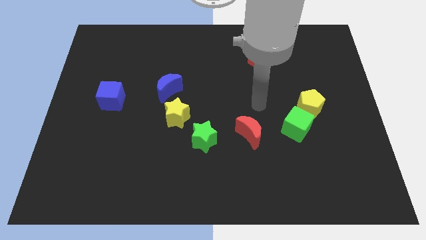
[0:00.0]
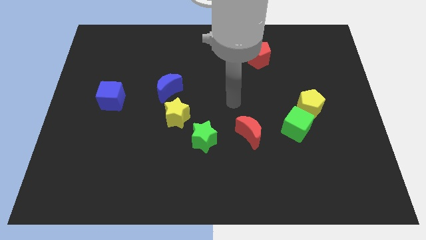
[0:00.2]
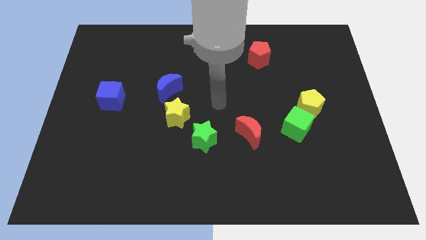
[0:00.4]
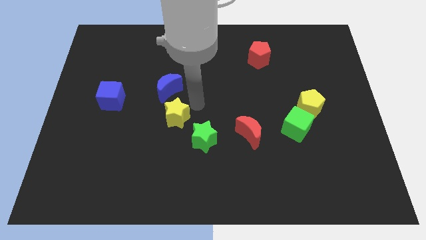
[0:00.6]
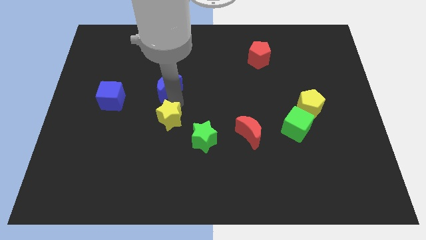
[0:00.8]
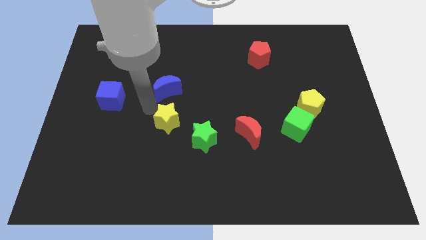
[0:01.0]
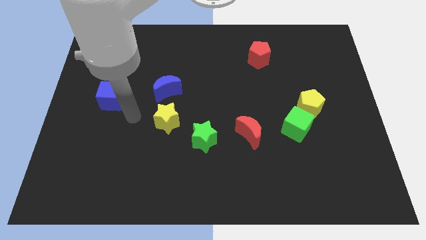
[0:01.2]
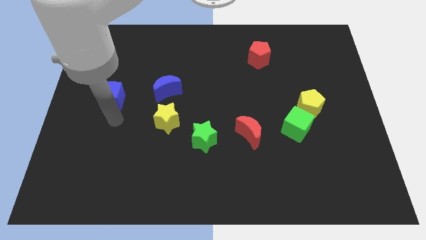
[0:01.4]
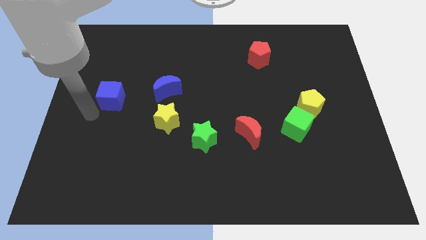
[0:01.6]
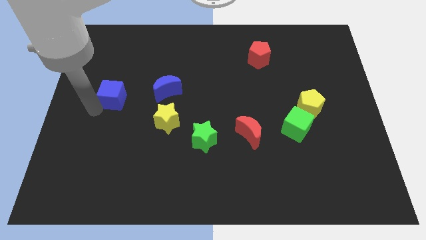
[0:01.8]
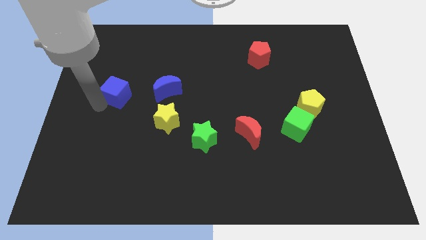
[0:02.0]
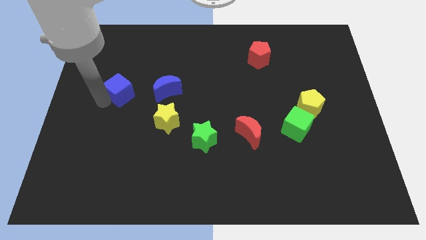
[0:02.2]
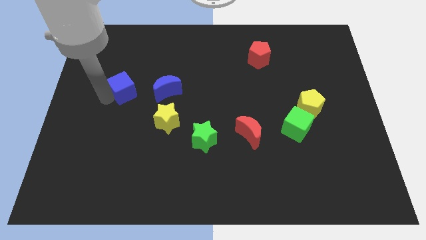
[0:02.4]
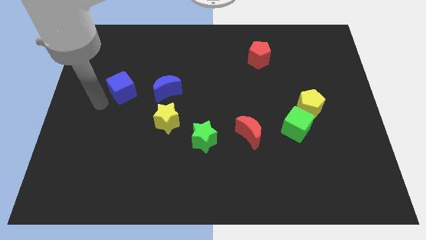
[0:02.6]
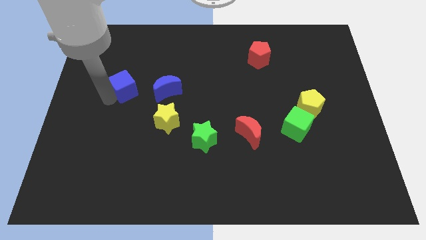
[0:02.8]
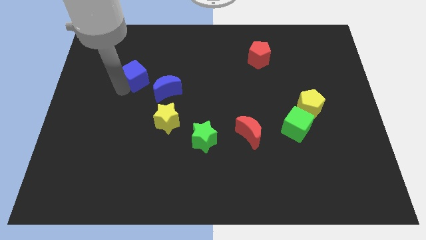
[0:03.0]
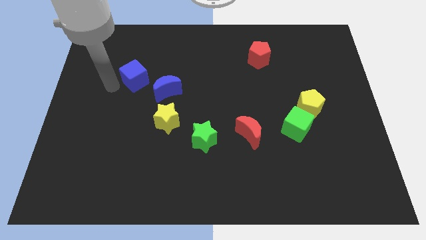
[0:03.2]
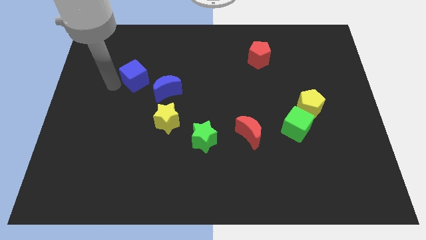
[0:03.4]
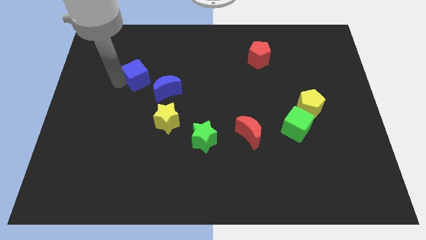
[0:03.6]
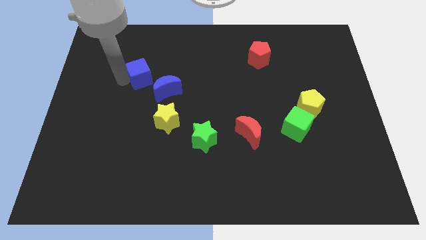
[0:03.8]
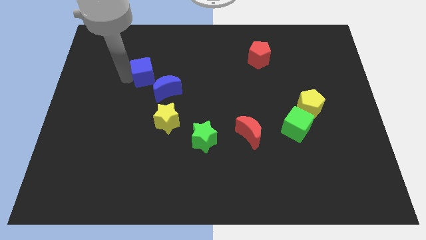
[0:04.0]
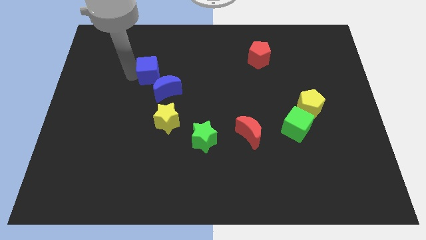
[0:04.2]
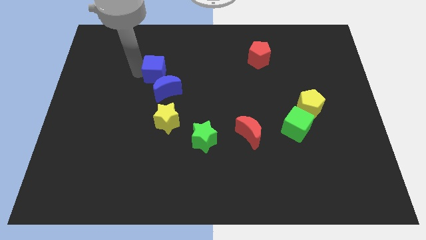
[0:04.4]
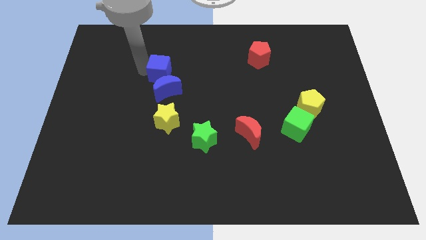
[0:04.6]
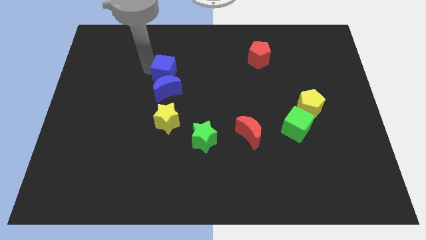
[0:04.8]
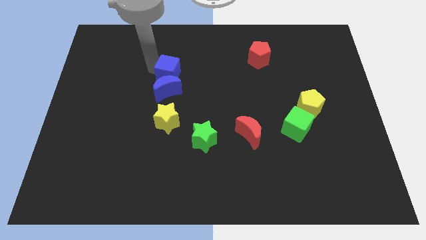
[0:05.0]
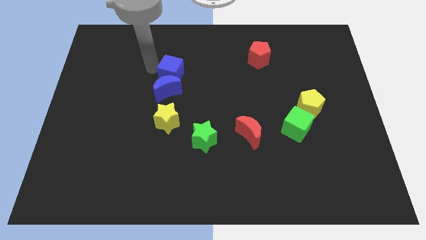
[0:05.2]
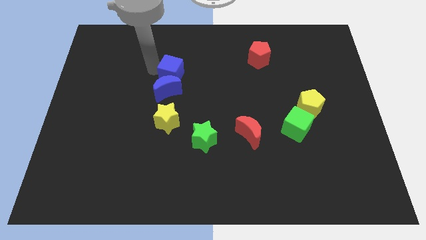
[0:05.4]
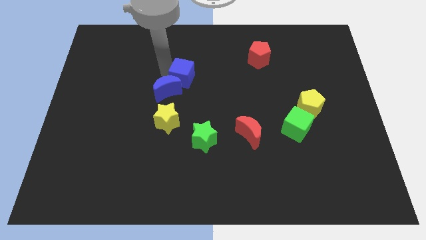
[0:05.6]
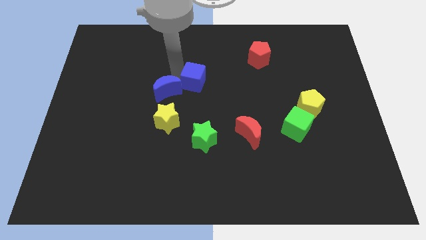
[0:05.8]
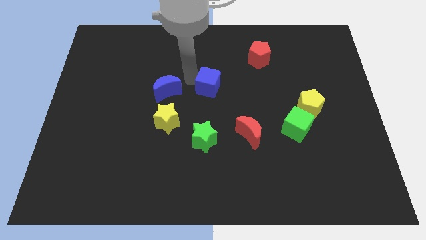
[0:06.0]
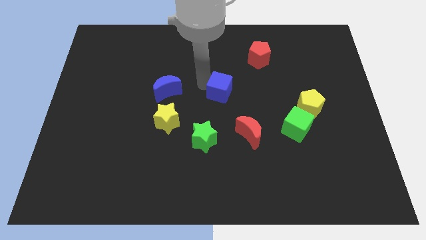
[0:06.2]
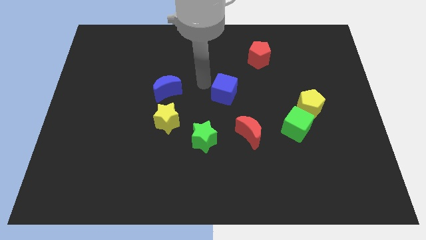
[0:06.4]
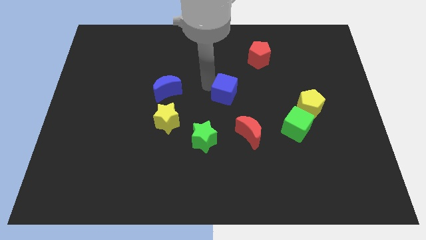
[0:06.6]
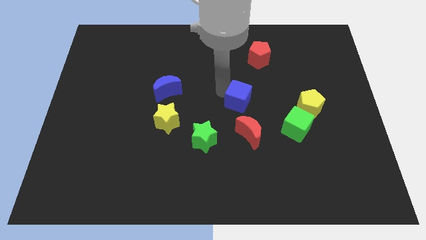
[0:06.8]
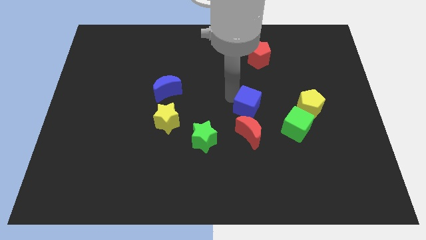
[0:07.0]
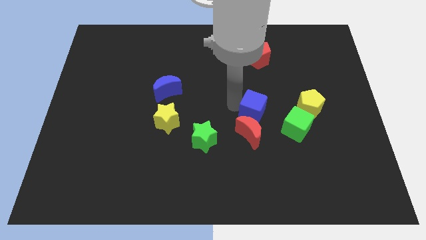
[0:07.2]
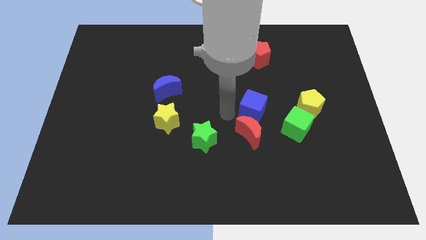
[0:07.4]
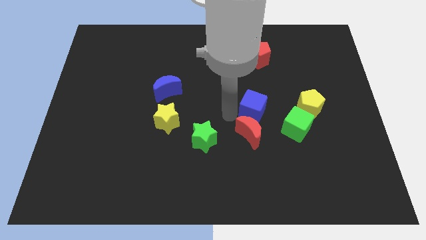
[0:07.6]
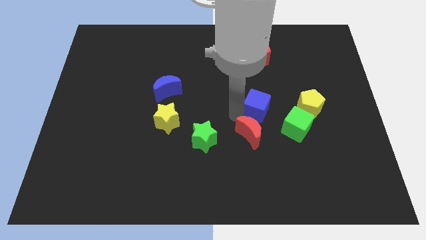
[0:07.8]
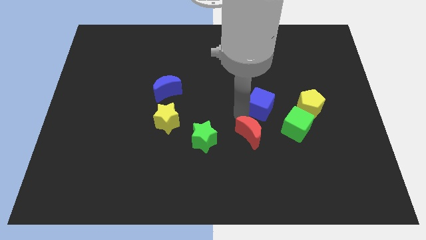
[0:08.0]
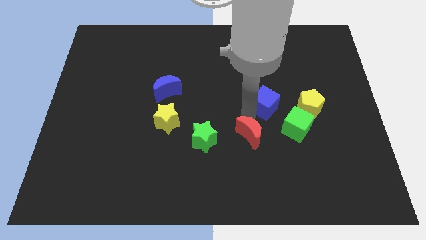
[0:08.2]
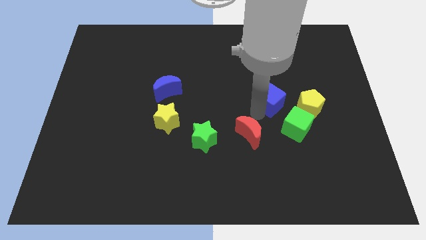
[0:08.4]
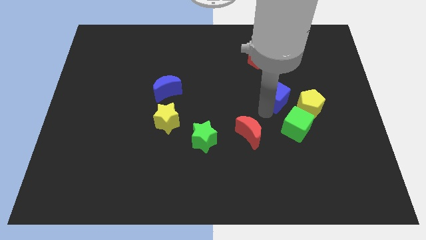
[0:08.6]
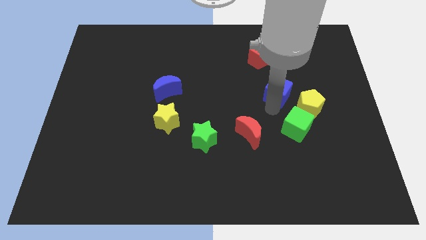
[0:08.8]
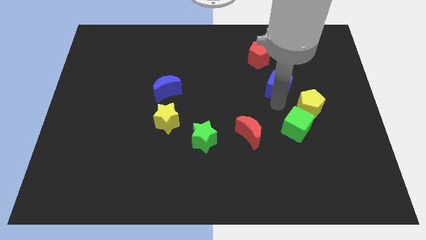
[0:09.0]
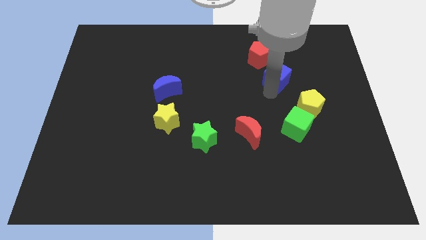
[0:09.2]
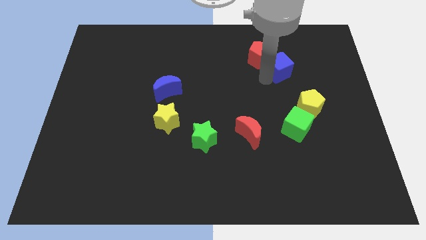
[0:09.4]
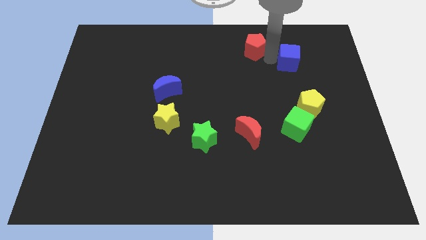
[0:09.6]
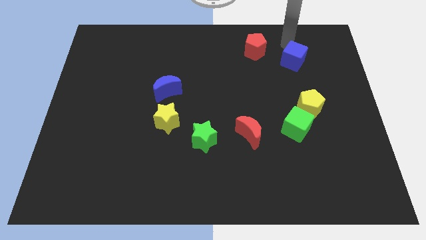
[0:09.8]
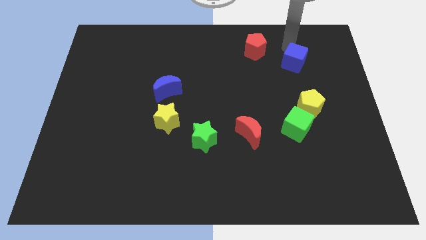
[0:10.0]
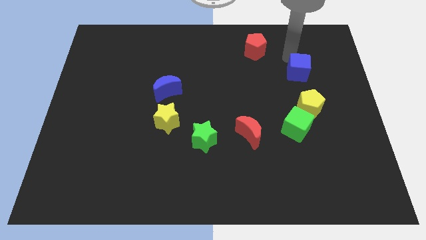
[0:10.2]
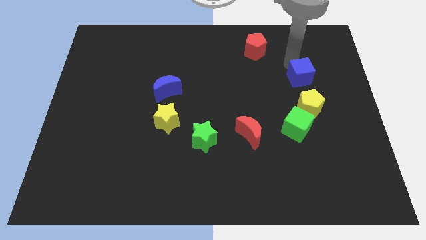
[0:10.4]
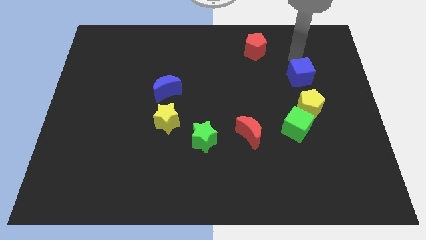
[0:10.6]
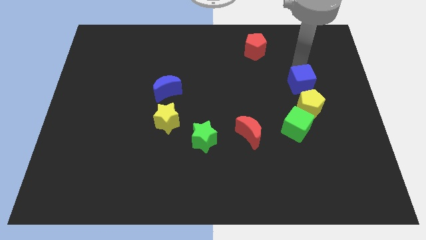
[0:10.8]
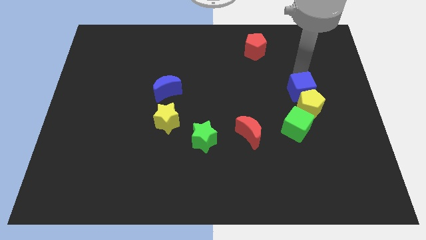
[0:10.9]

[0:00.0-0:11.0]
slide the blue cube close to the yellow pentagon

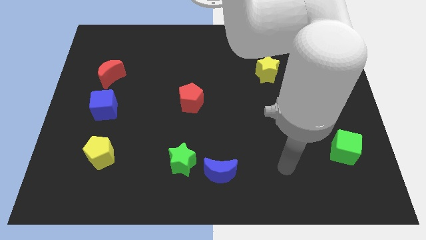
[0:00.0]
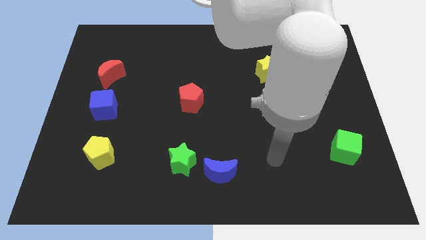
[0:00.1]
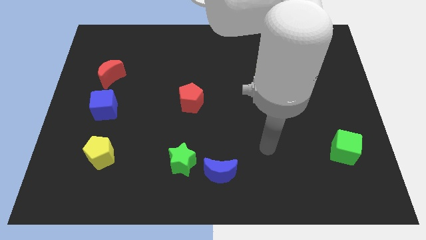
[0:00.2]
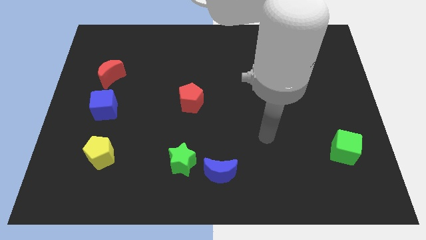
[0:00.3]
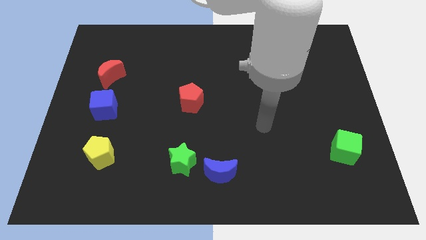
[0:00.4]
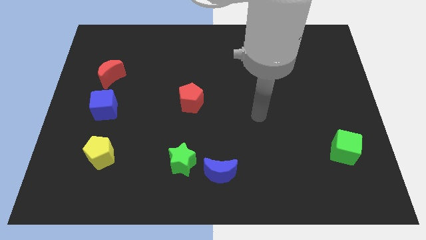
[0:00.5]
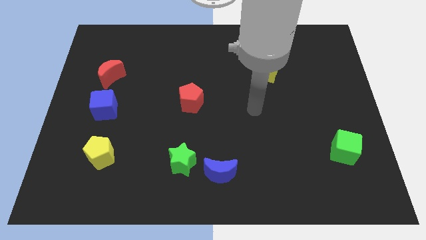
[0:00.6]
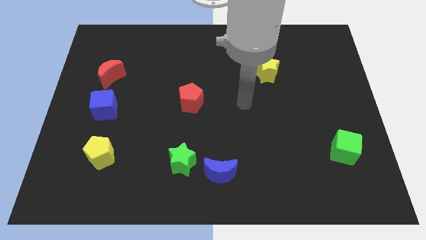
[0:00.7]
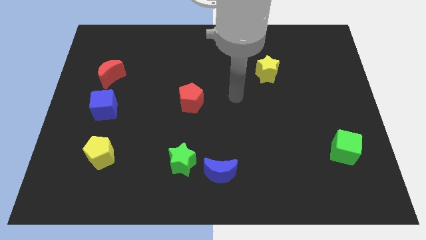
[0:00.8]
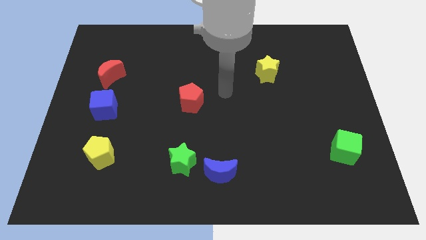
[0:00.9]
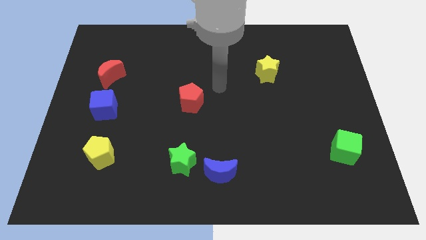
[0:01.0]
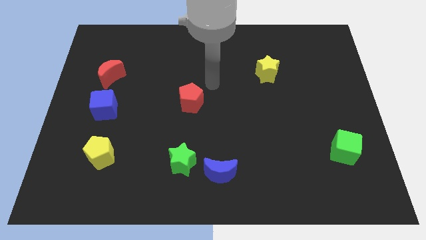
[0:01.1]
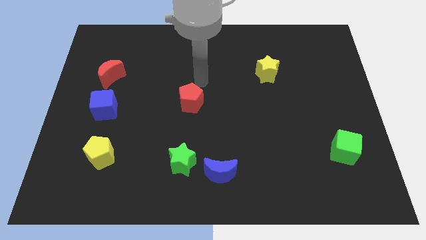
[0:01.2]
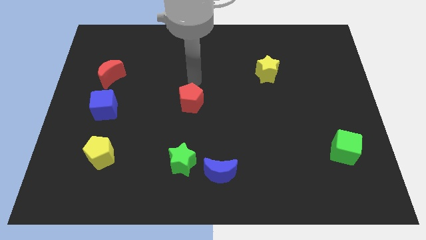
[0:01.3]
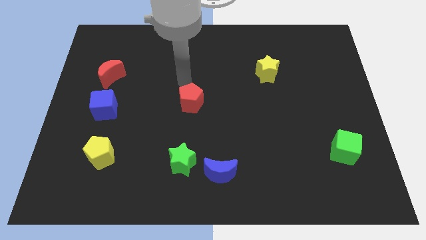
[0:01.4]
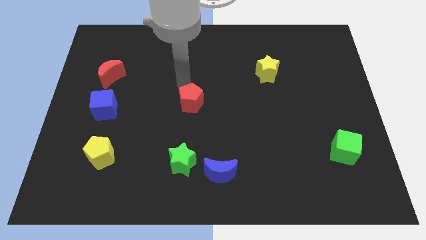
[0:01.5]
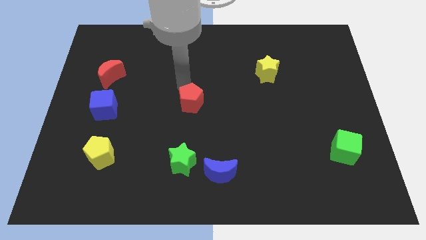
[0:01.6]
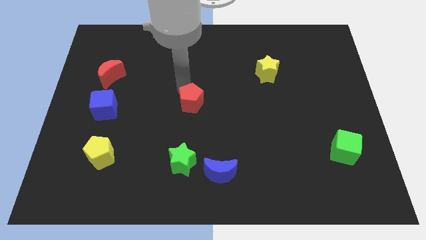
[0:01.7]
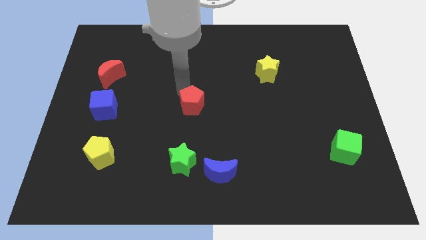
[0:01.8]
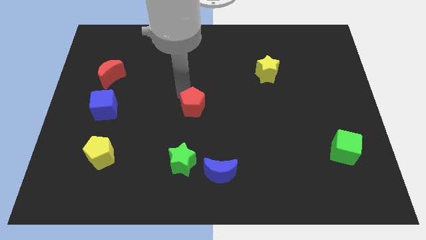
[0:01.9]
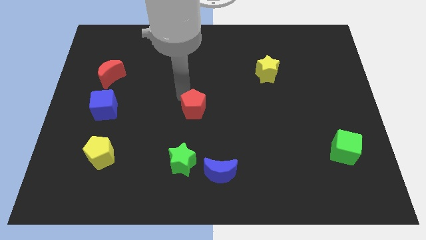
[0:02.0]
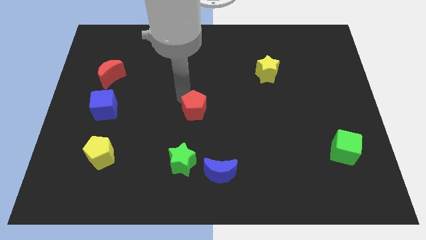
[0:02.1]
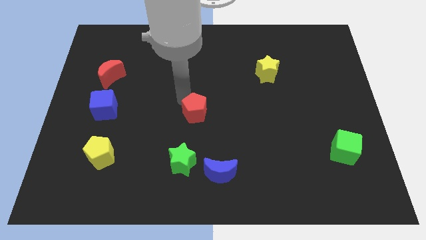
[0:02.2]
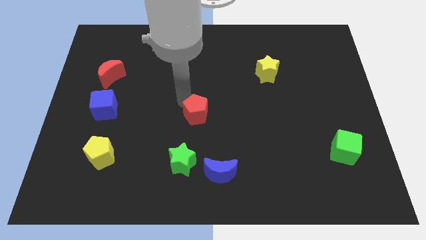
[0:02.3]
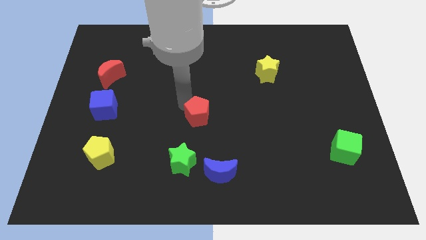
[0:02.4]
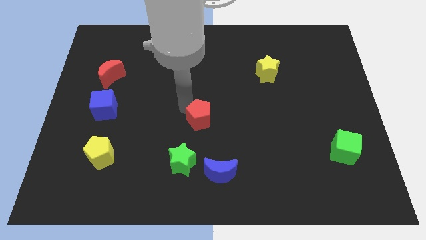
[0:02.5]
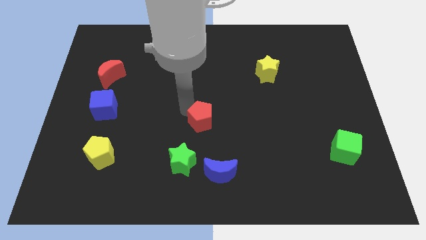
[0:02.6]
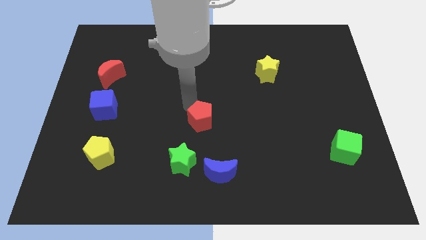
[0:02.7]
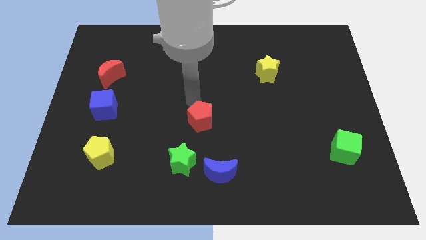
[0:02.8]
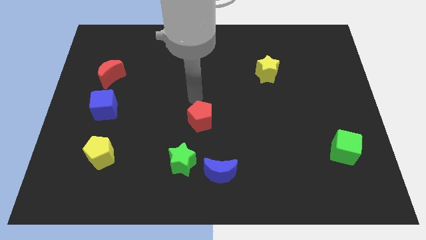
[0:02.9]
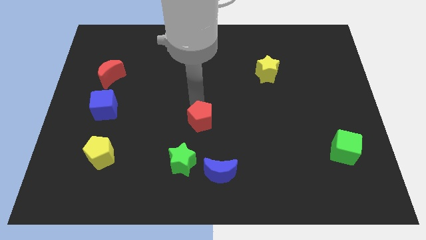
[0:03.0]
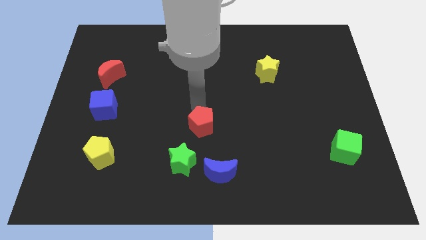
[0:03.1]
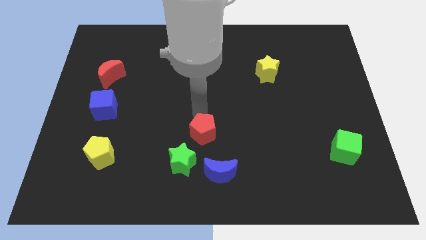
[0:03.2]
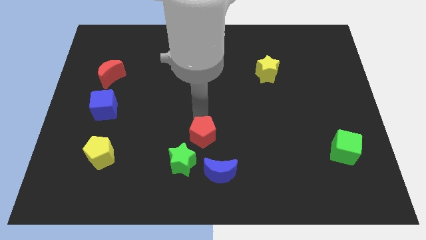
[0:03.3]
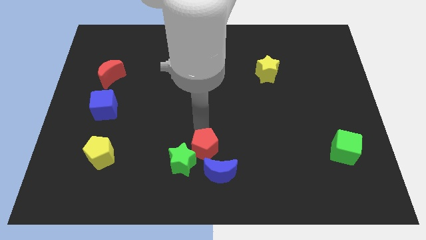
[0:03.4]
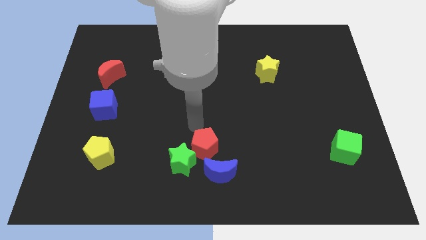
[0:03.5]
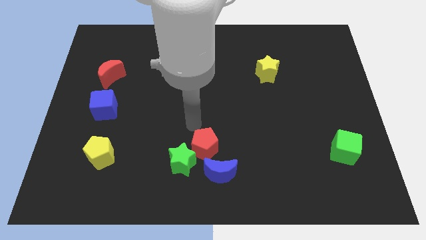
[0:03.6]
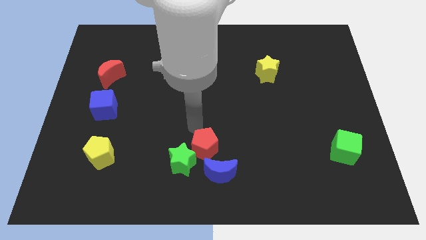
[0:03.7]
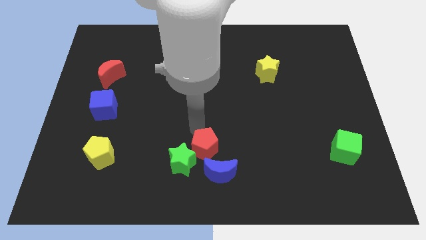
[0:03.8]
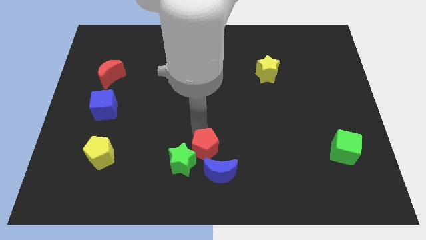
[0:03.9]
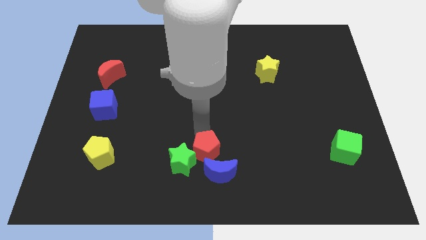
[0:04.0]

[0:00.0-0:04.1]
move the red pentagon next to the blue moon
